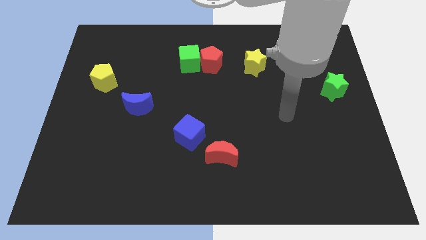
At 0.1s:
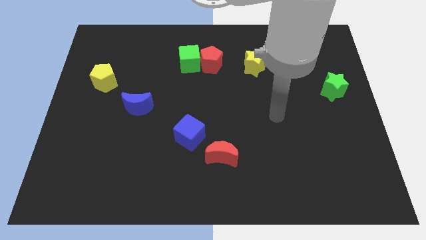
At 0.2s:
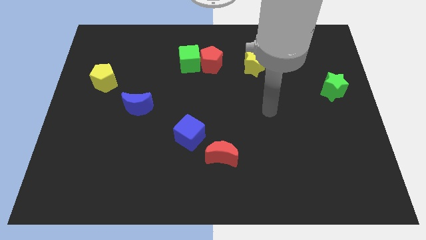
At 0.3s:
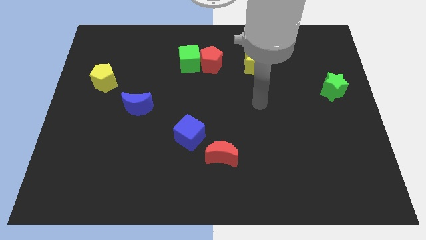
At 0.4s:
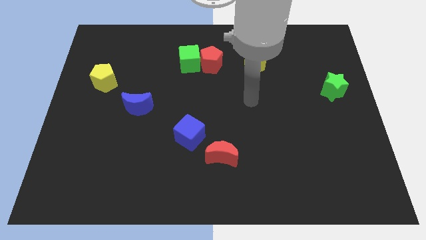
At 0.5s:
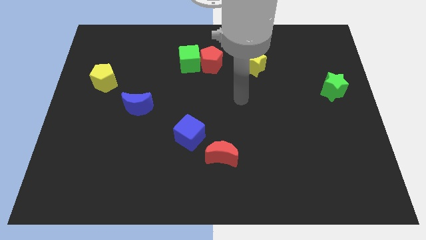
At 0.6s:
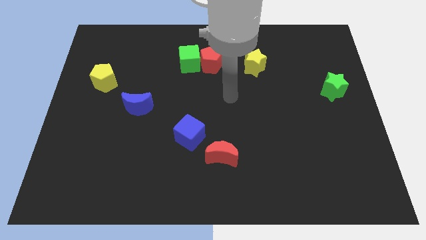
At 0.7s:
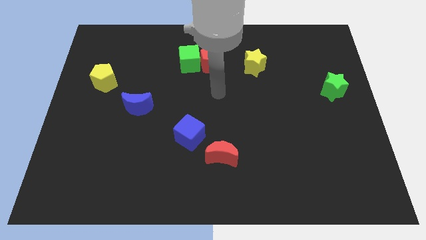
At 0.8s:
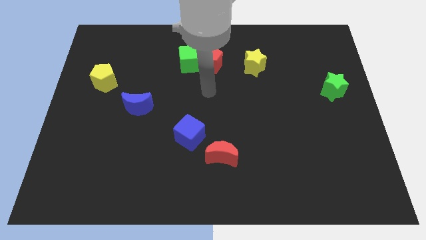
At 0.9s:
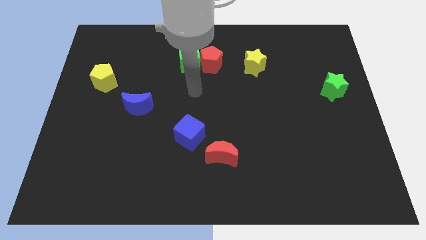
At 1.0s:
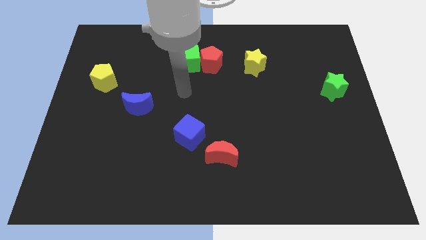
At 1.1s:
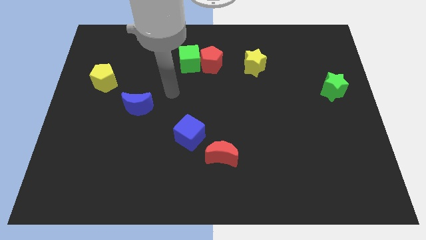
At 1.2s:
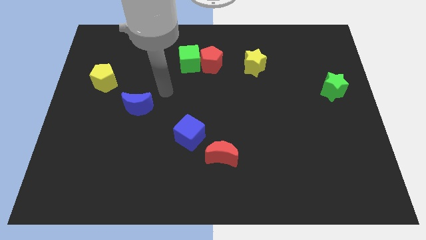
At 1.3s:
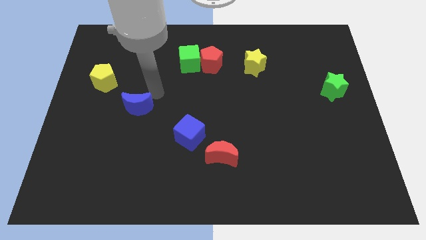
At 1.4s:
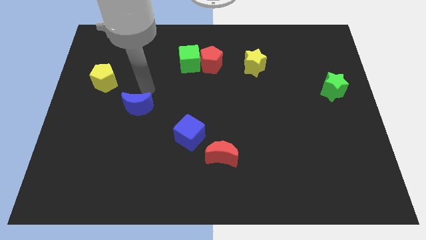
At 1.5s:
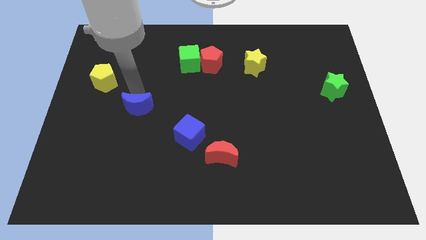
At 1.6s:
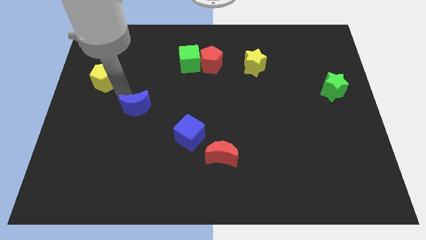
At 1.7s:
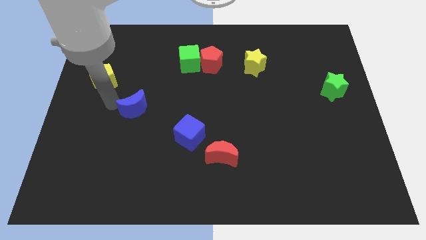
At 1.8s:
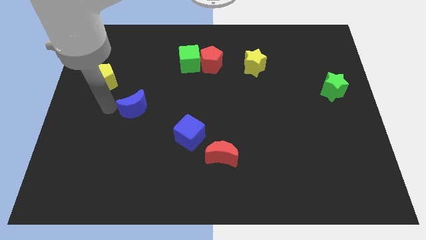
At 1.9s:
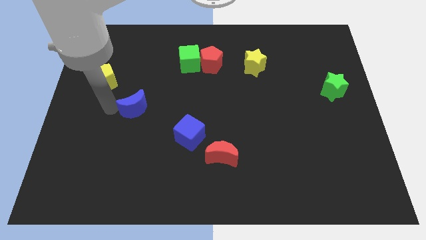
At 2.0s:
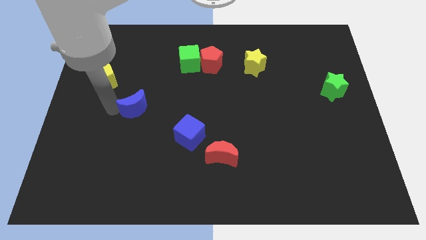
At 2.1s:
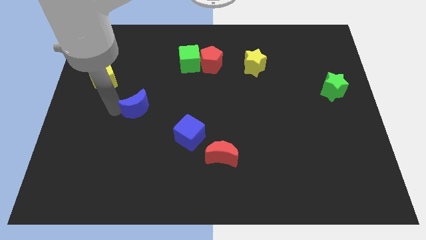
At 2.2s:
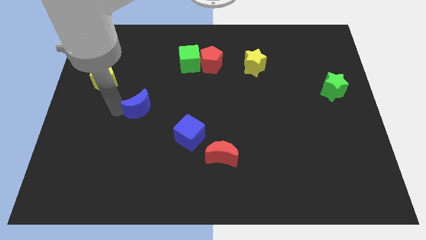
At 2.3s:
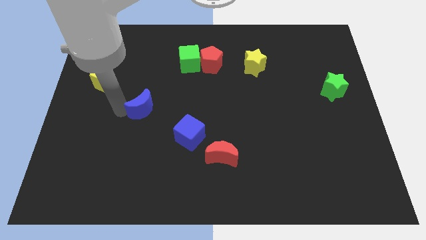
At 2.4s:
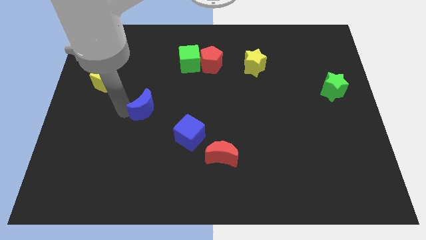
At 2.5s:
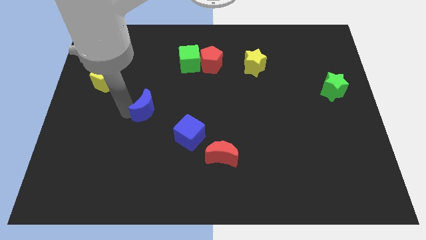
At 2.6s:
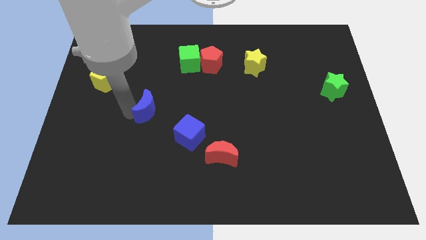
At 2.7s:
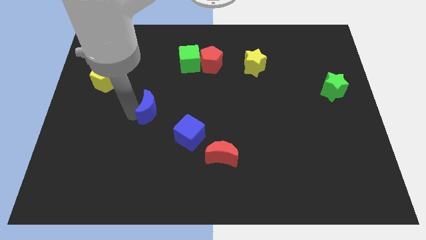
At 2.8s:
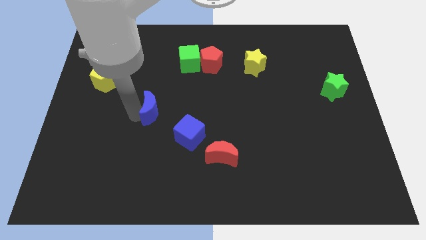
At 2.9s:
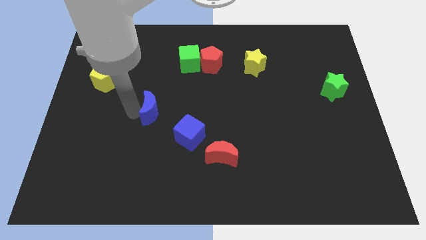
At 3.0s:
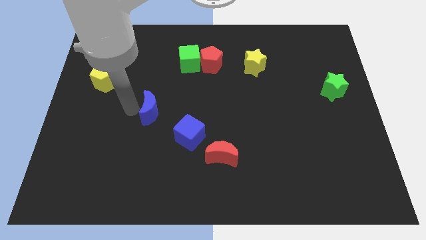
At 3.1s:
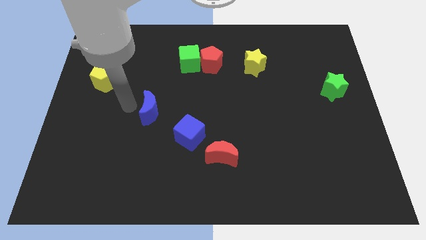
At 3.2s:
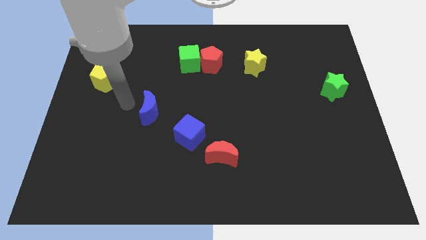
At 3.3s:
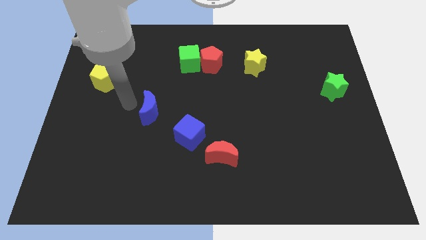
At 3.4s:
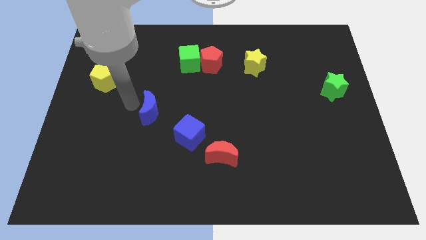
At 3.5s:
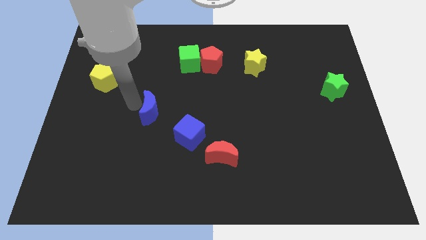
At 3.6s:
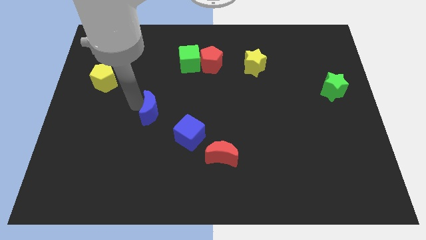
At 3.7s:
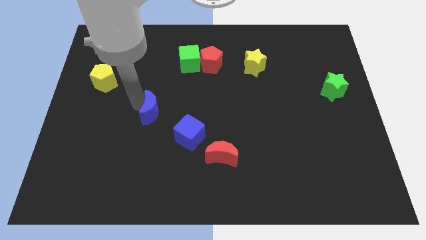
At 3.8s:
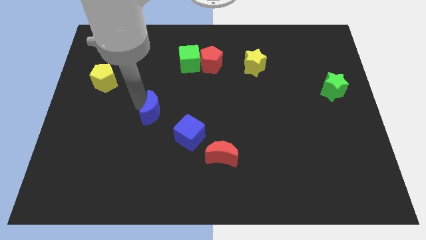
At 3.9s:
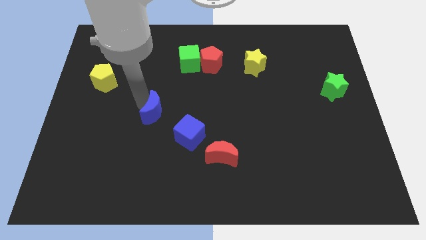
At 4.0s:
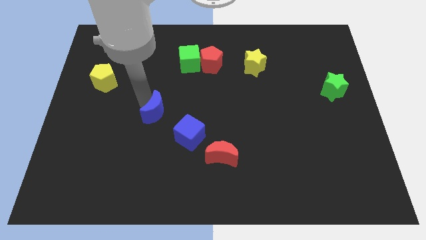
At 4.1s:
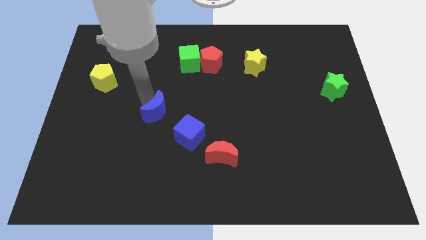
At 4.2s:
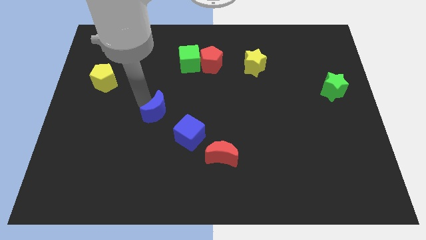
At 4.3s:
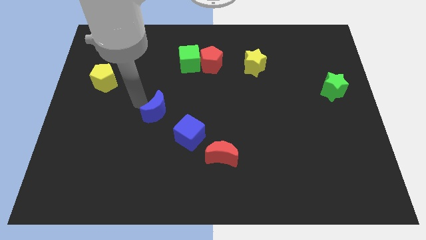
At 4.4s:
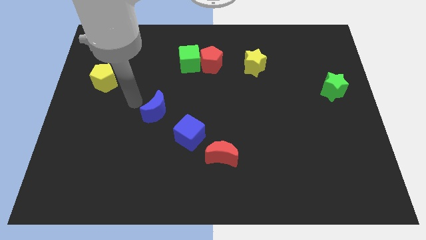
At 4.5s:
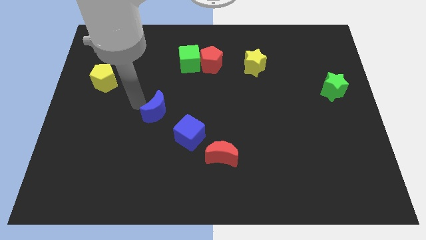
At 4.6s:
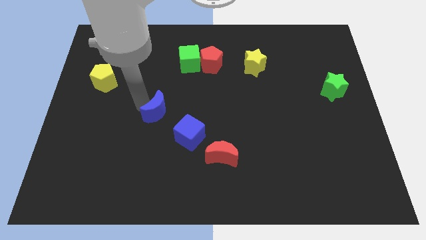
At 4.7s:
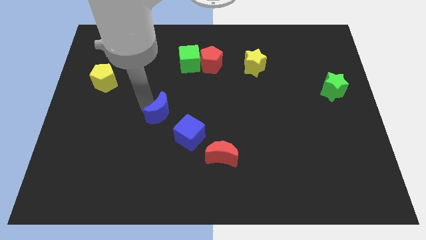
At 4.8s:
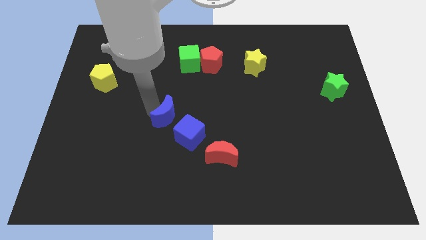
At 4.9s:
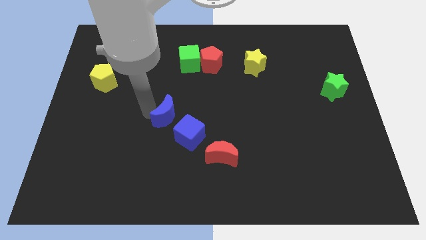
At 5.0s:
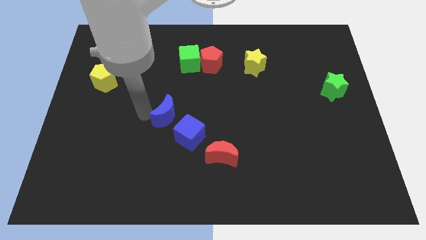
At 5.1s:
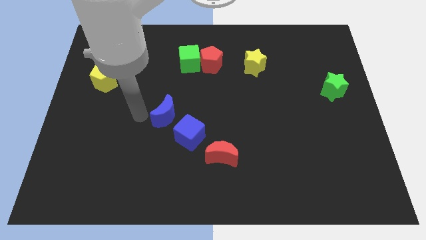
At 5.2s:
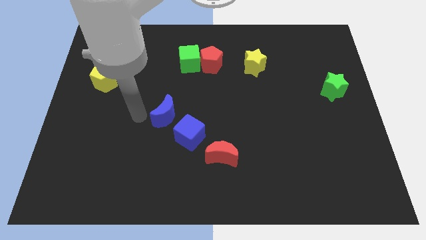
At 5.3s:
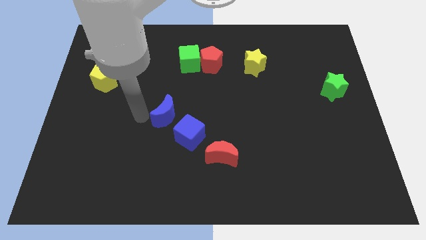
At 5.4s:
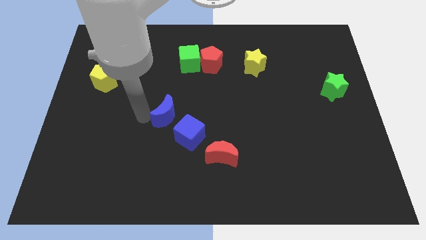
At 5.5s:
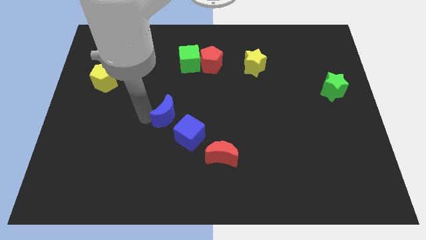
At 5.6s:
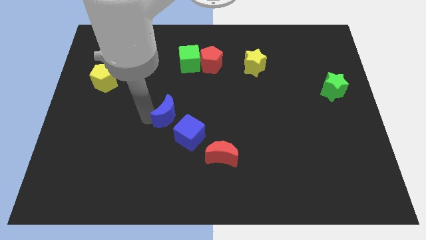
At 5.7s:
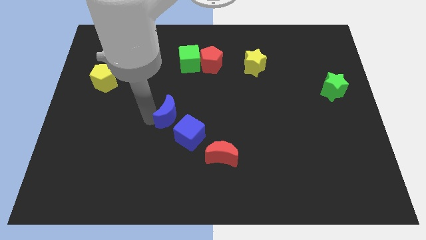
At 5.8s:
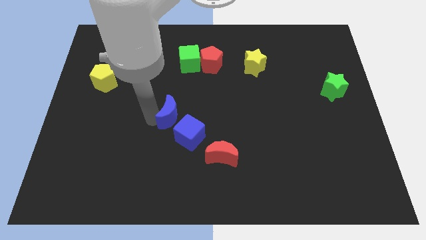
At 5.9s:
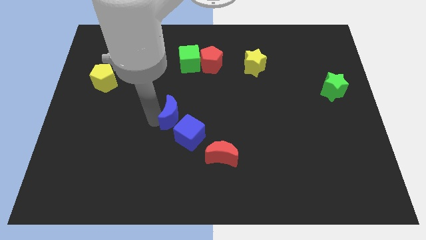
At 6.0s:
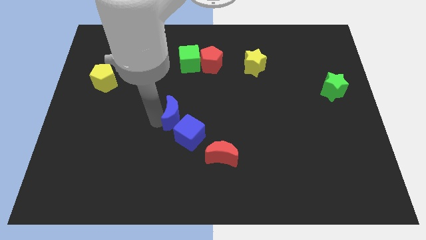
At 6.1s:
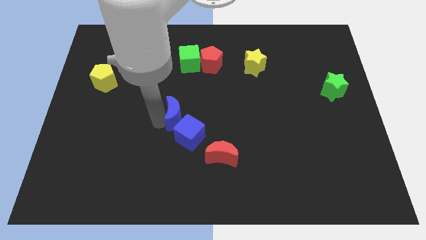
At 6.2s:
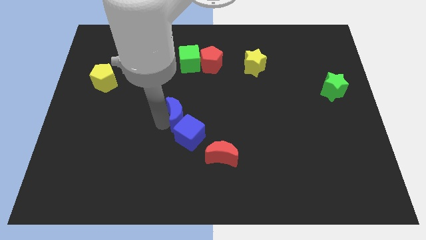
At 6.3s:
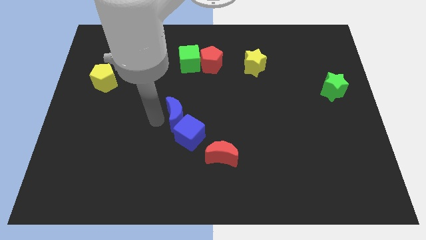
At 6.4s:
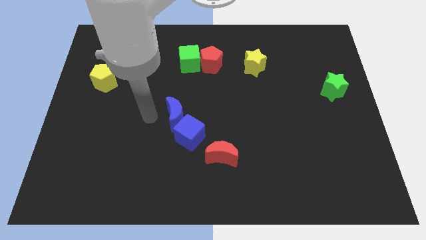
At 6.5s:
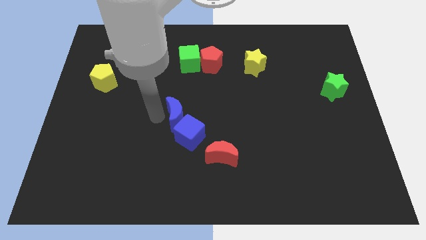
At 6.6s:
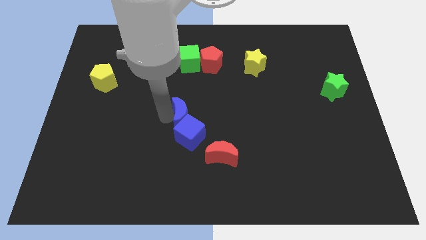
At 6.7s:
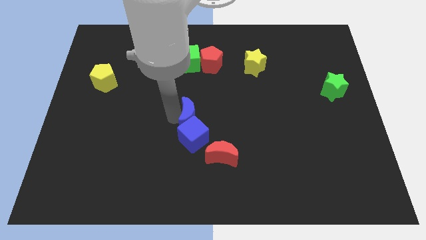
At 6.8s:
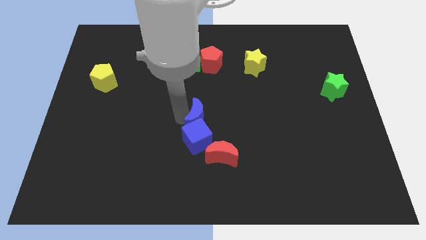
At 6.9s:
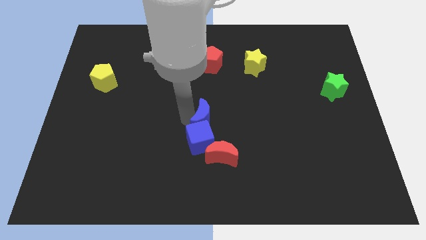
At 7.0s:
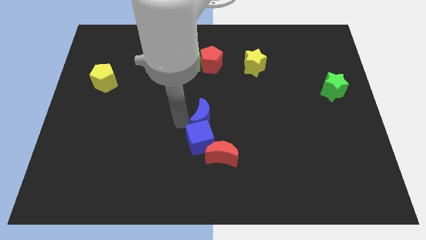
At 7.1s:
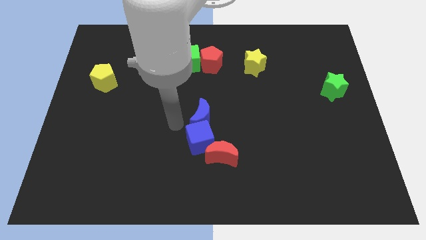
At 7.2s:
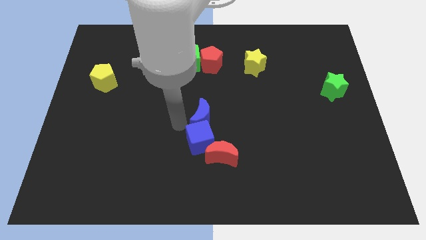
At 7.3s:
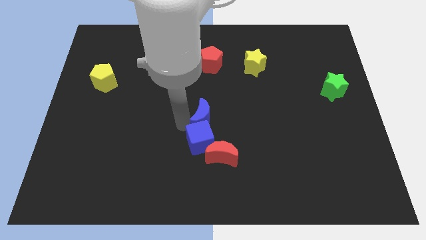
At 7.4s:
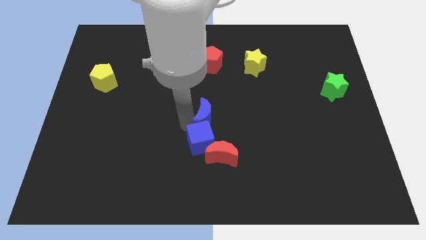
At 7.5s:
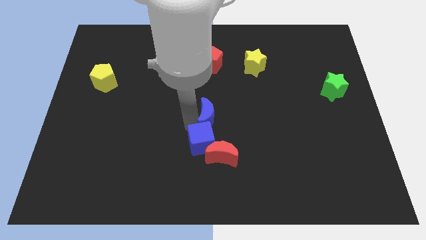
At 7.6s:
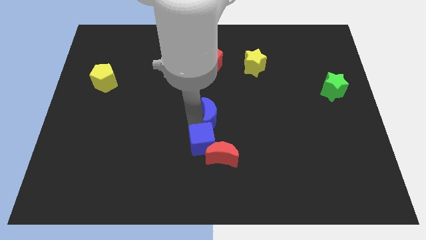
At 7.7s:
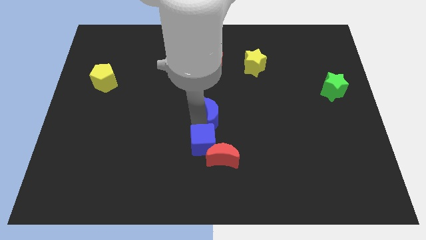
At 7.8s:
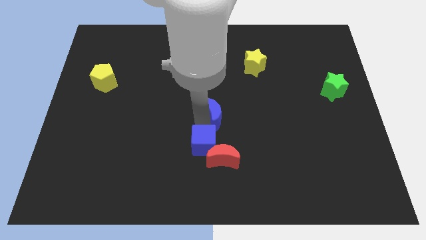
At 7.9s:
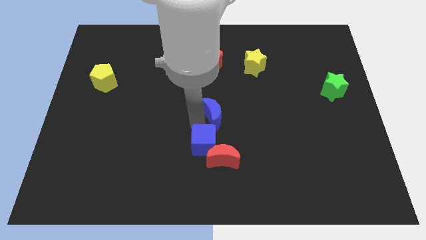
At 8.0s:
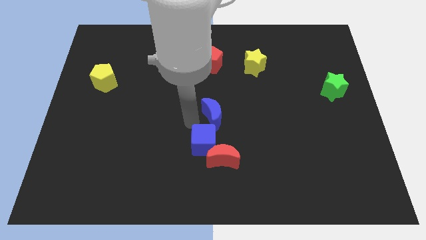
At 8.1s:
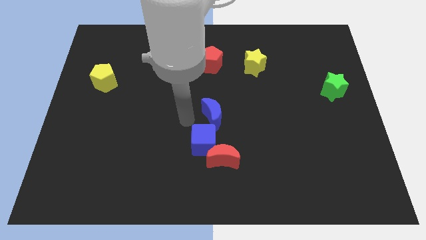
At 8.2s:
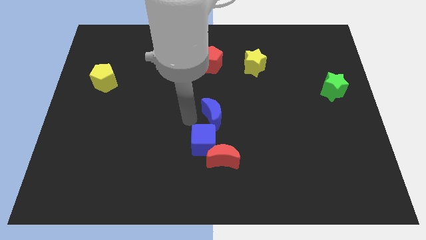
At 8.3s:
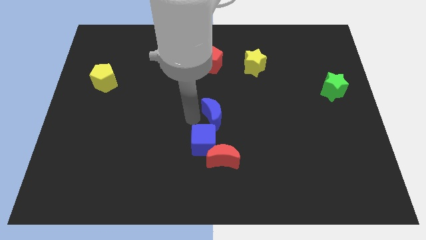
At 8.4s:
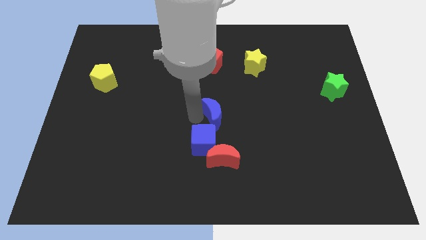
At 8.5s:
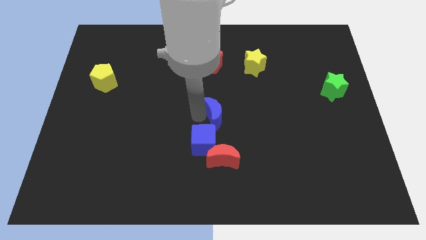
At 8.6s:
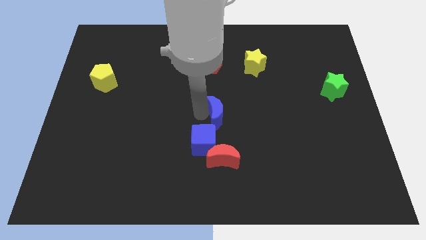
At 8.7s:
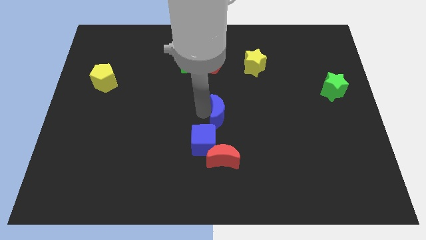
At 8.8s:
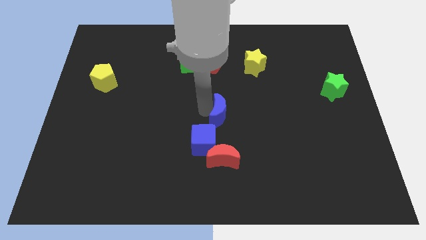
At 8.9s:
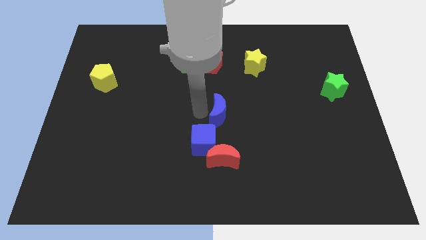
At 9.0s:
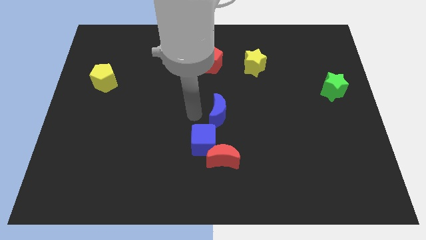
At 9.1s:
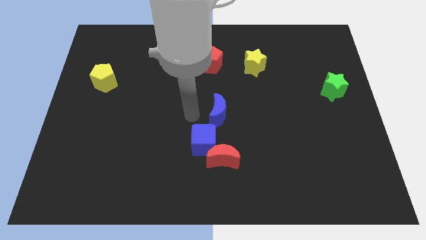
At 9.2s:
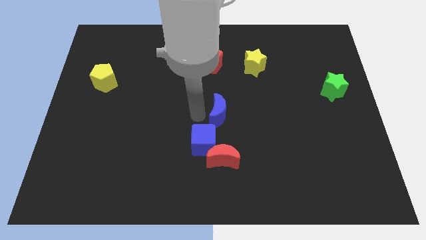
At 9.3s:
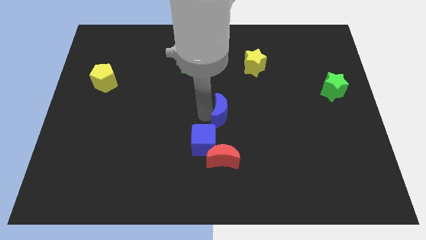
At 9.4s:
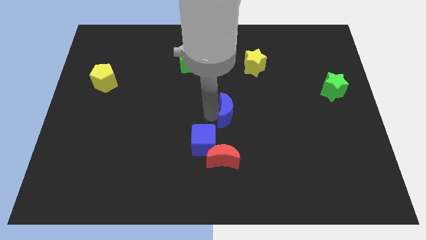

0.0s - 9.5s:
move the blue moon right
